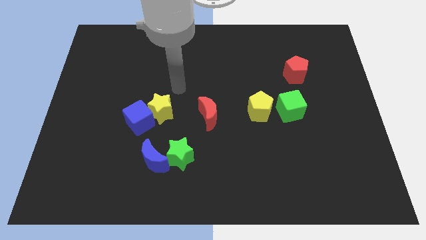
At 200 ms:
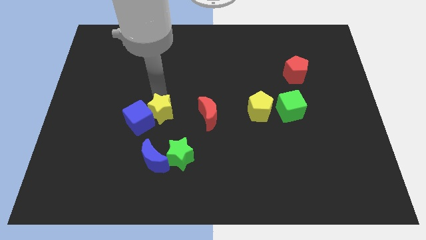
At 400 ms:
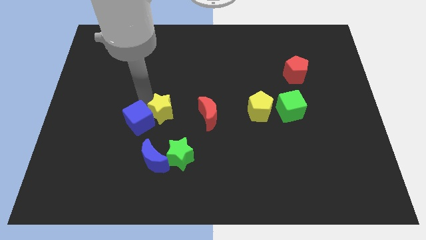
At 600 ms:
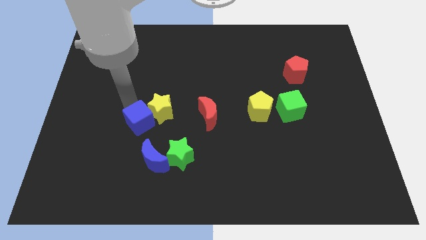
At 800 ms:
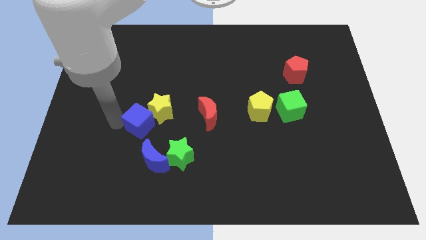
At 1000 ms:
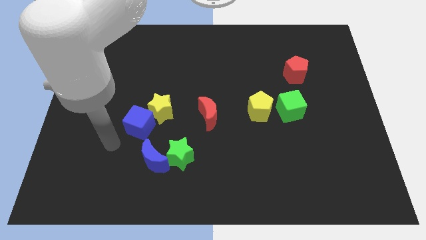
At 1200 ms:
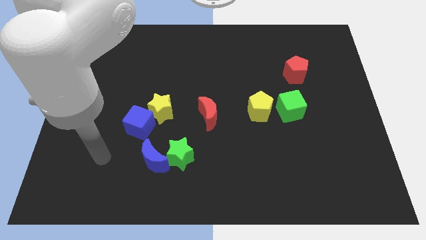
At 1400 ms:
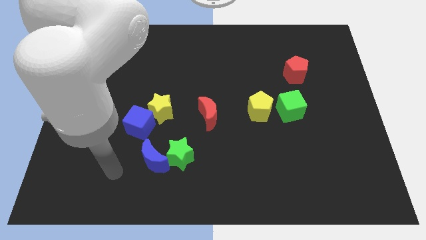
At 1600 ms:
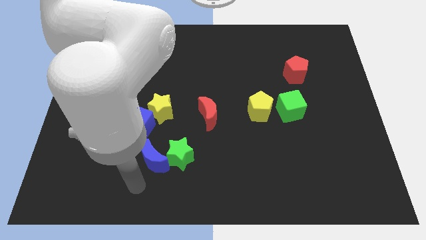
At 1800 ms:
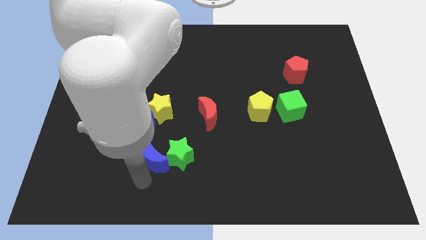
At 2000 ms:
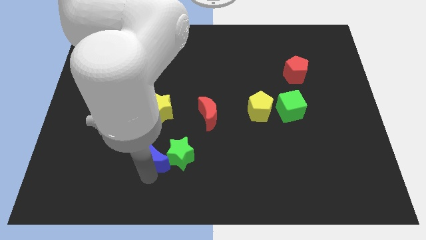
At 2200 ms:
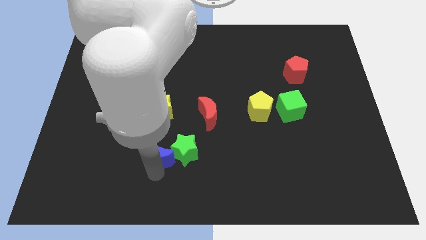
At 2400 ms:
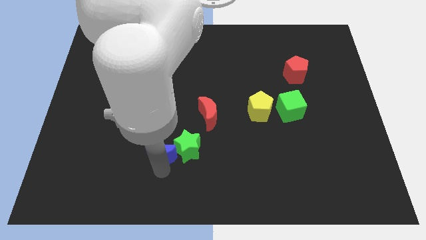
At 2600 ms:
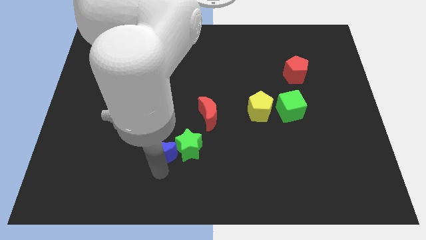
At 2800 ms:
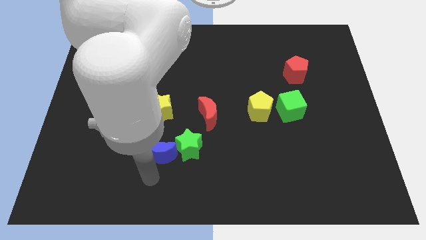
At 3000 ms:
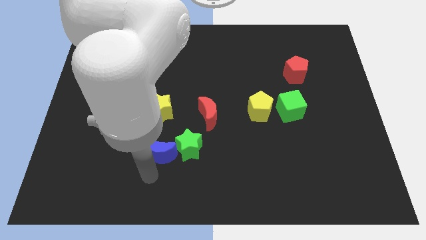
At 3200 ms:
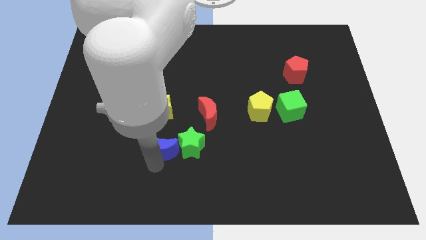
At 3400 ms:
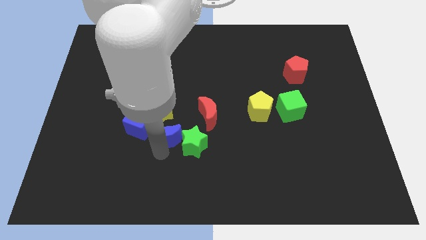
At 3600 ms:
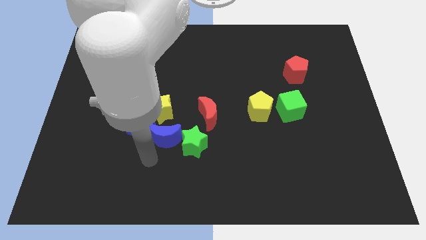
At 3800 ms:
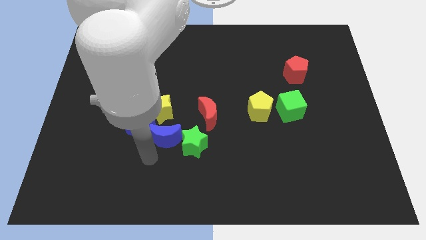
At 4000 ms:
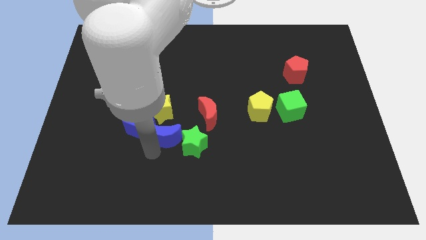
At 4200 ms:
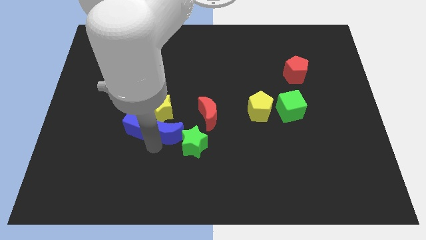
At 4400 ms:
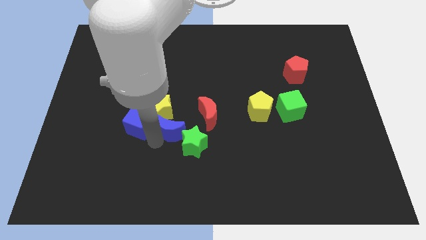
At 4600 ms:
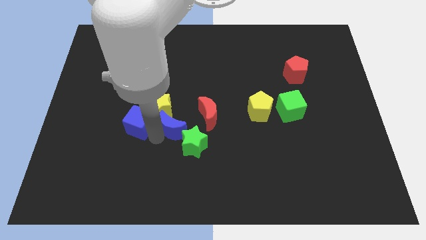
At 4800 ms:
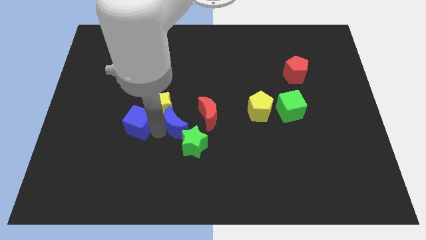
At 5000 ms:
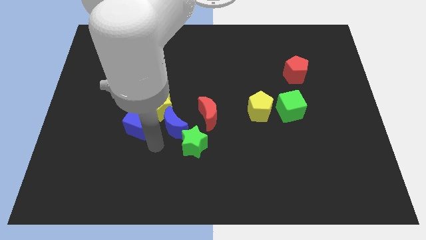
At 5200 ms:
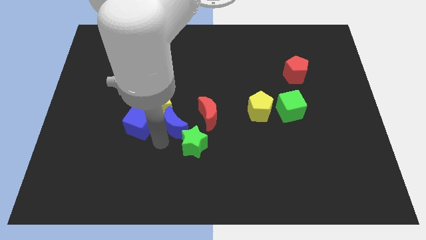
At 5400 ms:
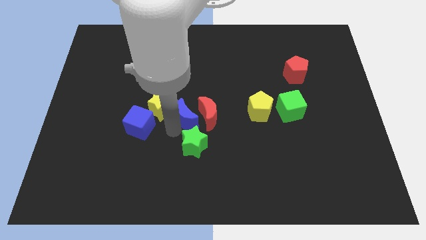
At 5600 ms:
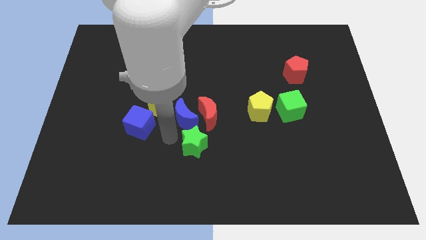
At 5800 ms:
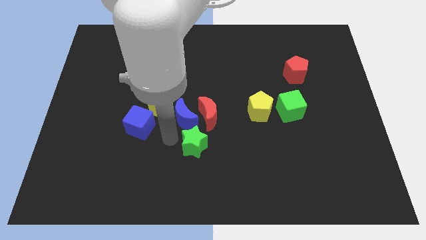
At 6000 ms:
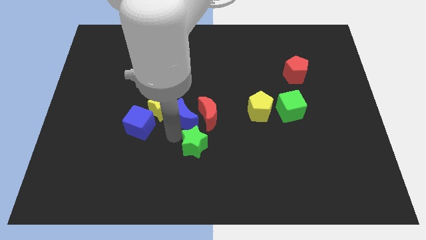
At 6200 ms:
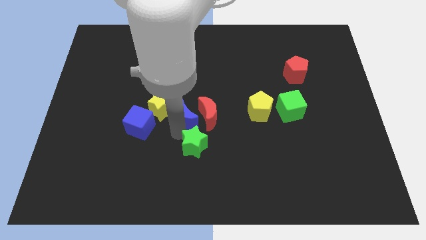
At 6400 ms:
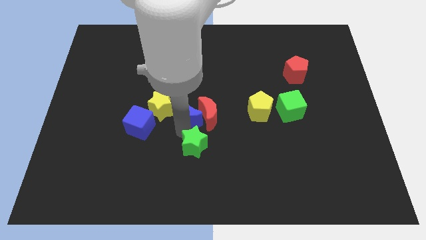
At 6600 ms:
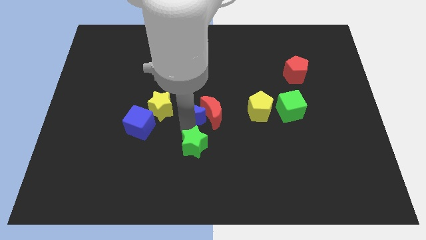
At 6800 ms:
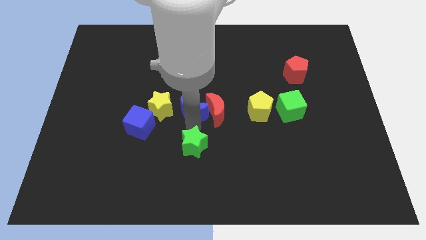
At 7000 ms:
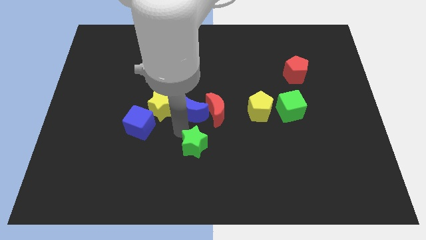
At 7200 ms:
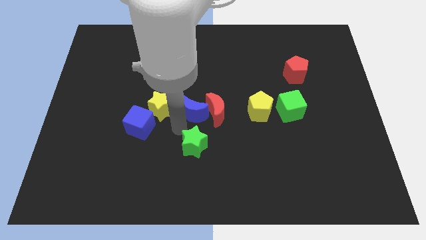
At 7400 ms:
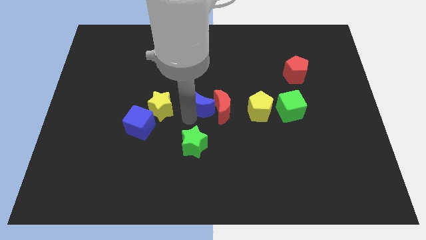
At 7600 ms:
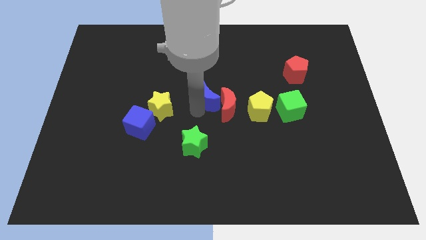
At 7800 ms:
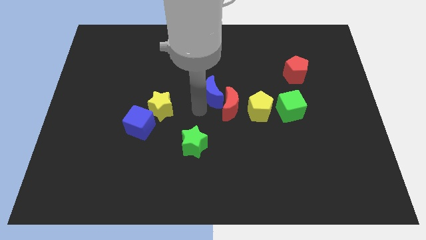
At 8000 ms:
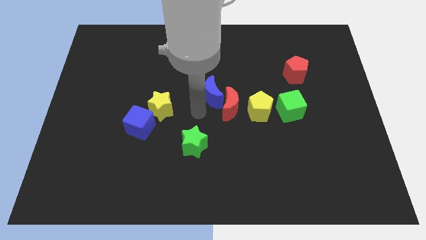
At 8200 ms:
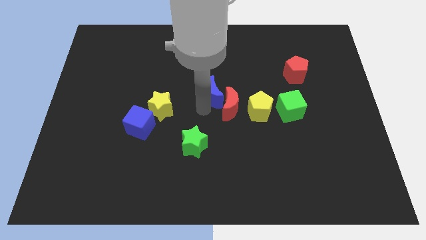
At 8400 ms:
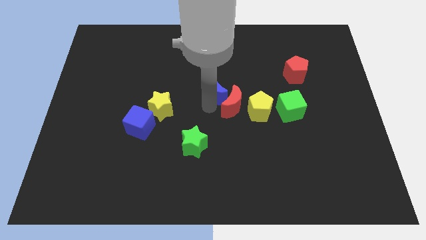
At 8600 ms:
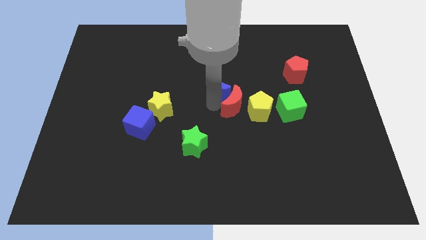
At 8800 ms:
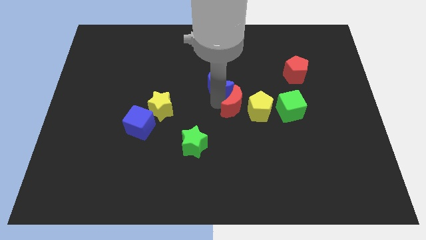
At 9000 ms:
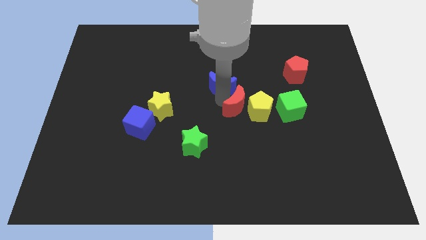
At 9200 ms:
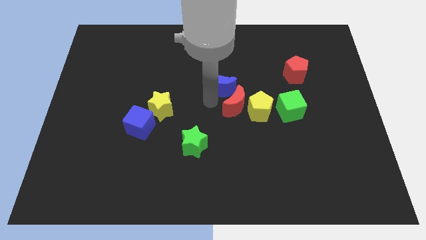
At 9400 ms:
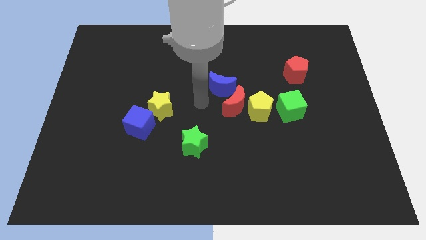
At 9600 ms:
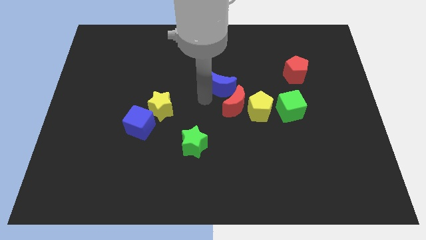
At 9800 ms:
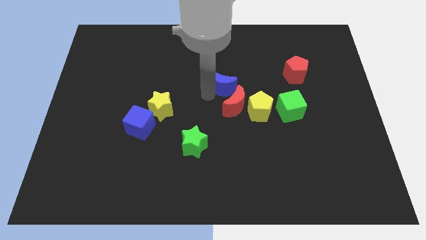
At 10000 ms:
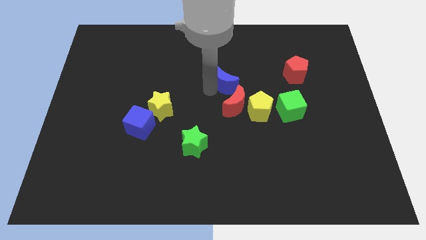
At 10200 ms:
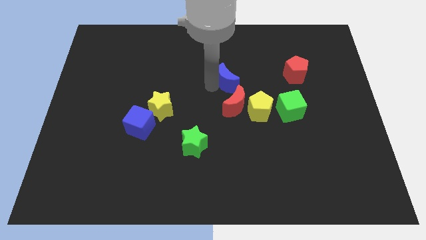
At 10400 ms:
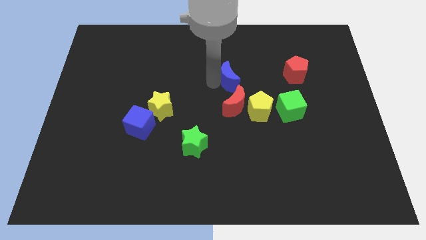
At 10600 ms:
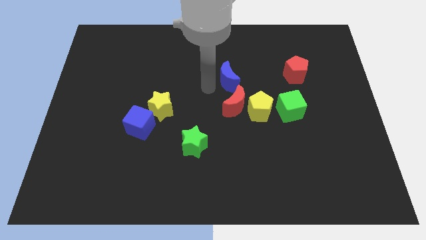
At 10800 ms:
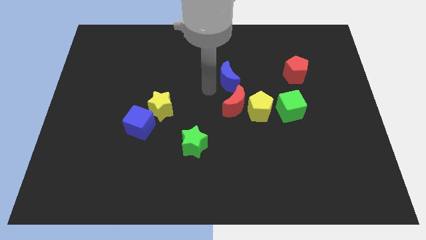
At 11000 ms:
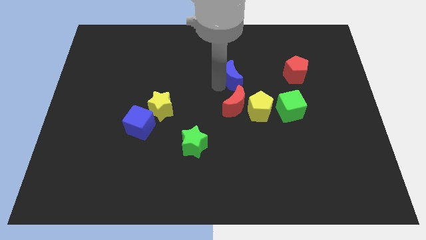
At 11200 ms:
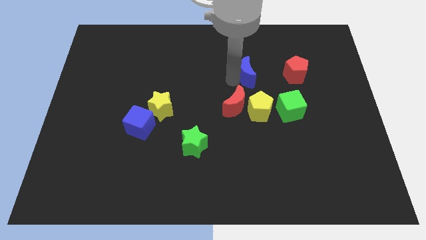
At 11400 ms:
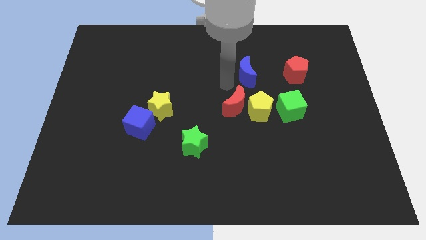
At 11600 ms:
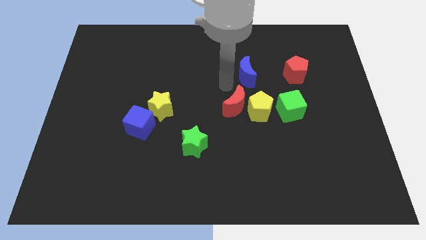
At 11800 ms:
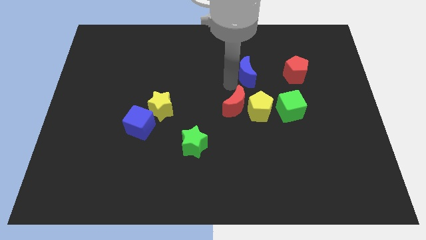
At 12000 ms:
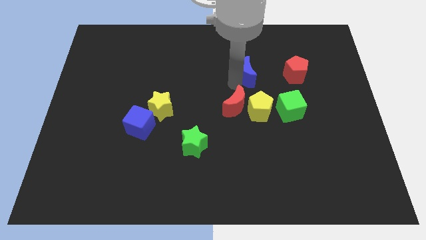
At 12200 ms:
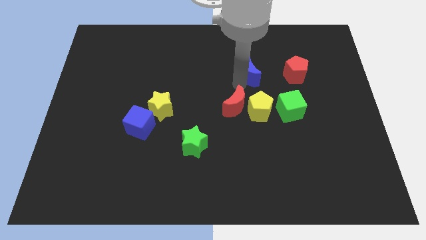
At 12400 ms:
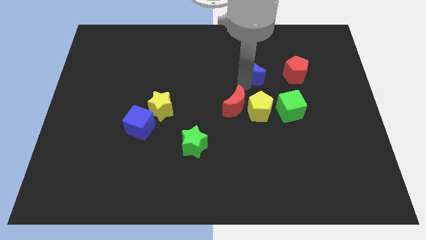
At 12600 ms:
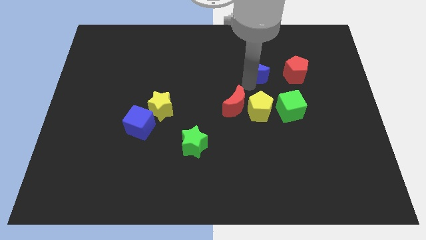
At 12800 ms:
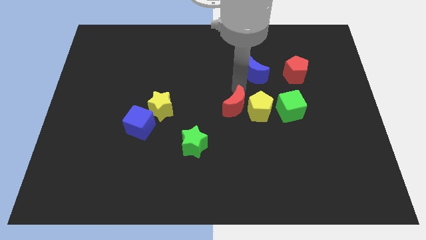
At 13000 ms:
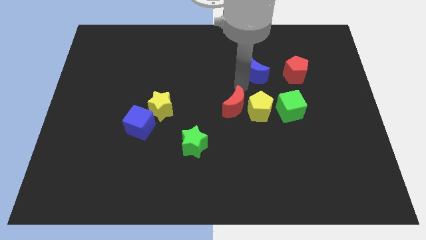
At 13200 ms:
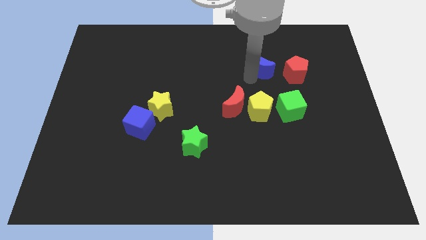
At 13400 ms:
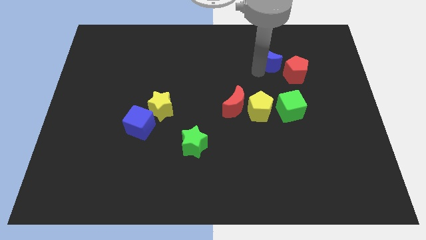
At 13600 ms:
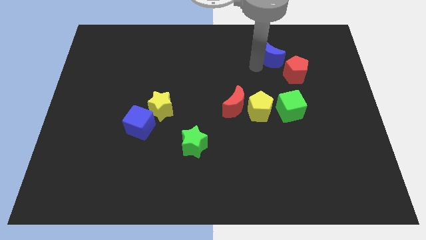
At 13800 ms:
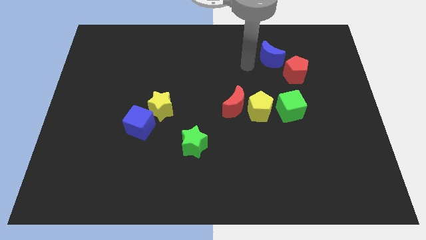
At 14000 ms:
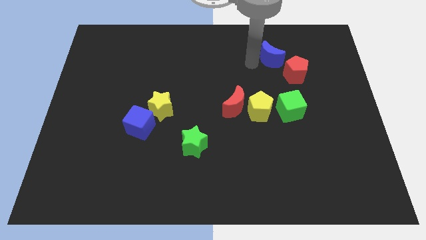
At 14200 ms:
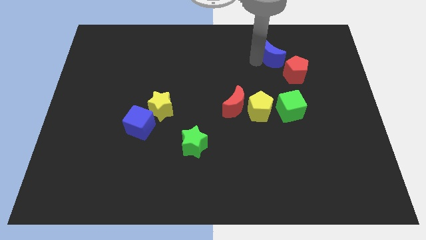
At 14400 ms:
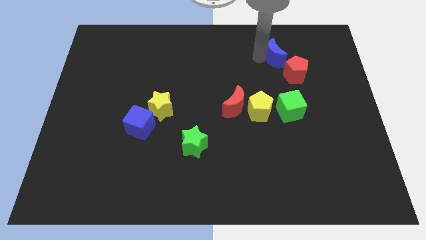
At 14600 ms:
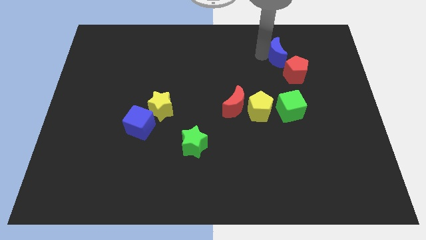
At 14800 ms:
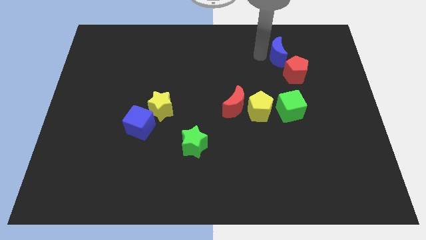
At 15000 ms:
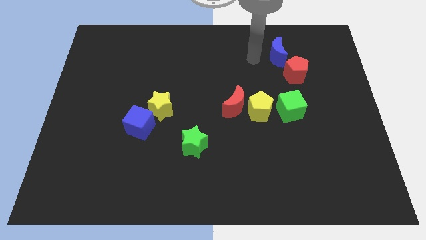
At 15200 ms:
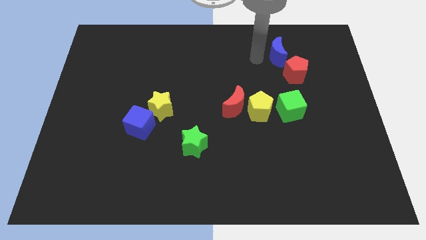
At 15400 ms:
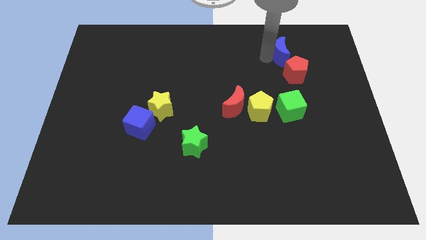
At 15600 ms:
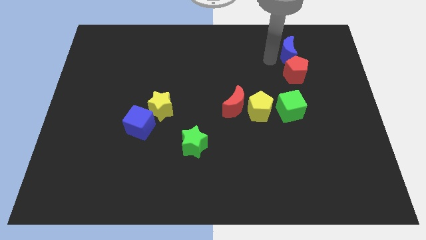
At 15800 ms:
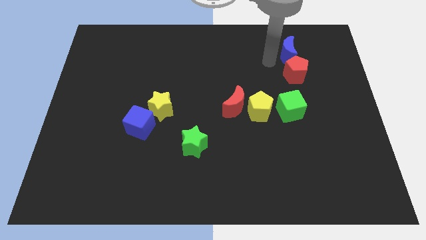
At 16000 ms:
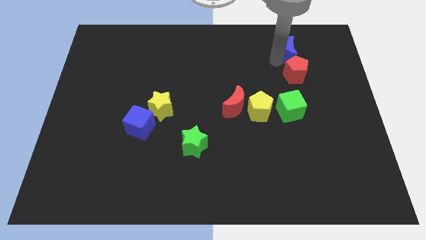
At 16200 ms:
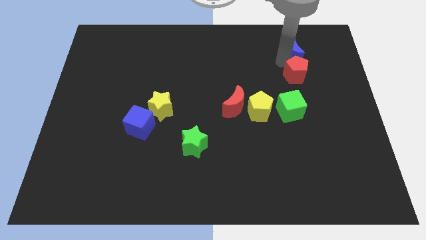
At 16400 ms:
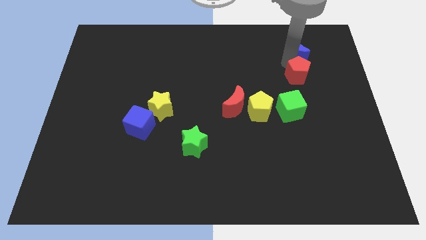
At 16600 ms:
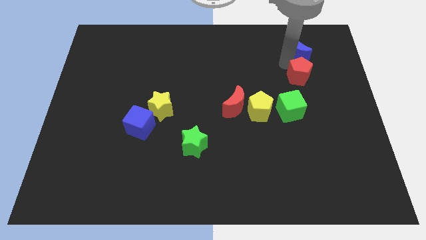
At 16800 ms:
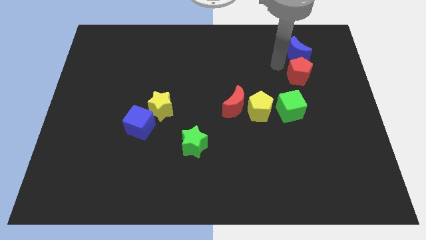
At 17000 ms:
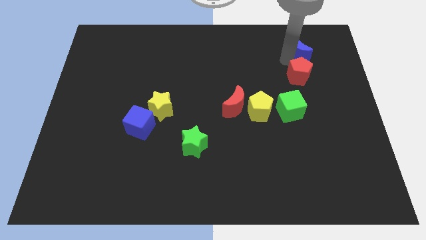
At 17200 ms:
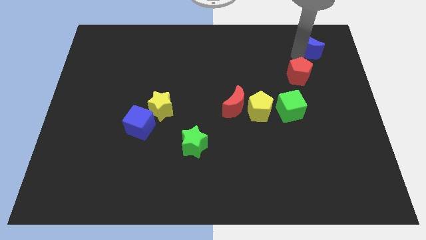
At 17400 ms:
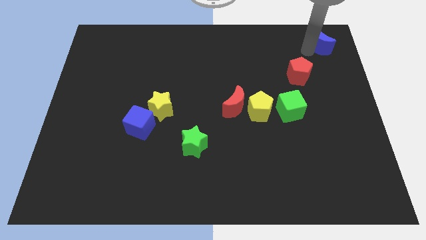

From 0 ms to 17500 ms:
push the blue moon to the top right
